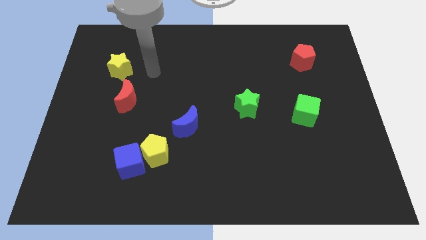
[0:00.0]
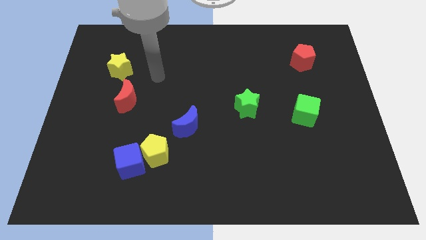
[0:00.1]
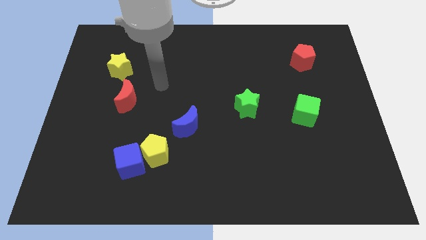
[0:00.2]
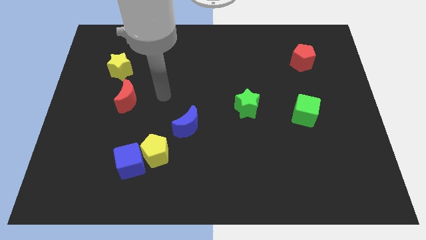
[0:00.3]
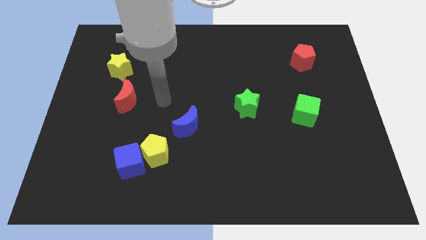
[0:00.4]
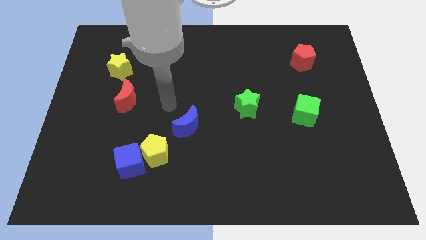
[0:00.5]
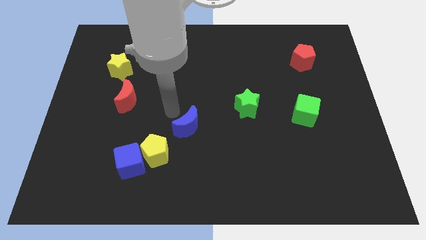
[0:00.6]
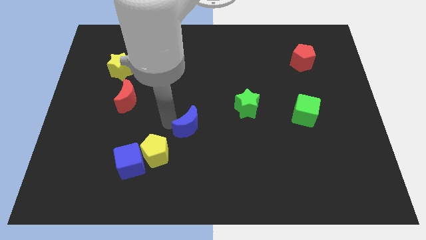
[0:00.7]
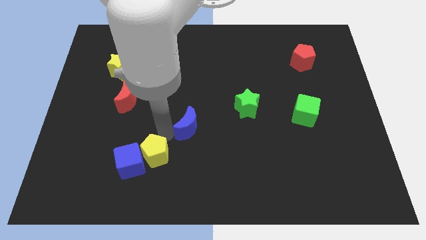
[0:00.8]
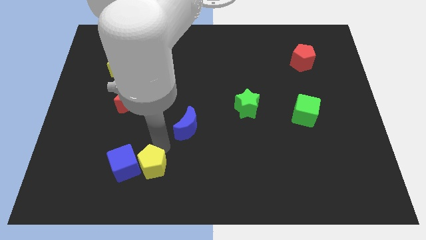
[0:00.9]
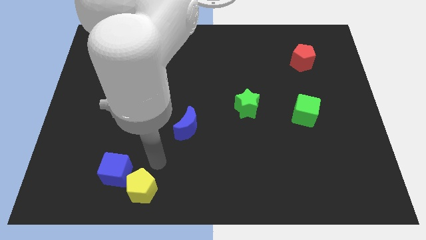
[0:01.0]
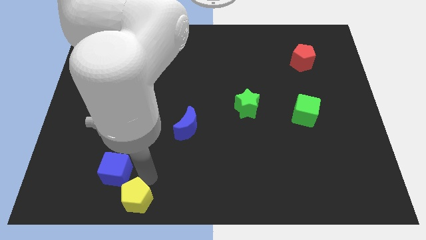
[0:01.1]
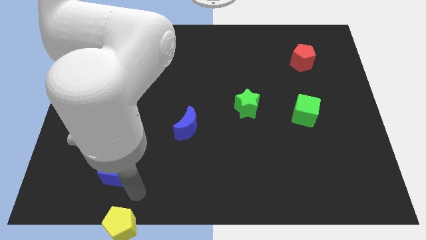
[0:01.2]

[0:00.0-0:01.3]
move the blue cube away from the yellow pentagon

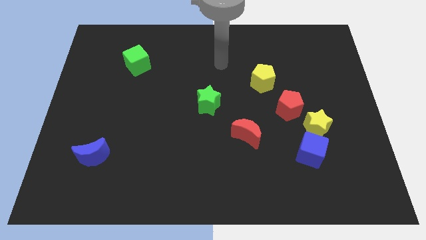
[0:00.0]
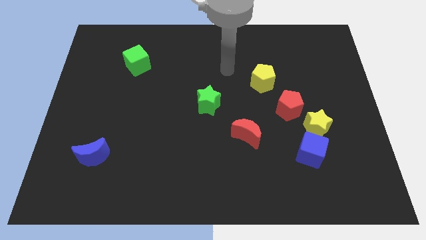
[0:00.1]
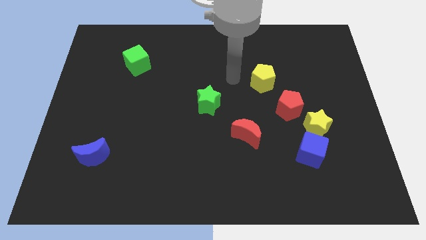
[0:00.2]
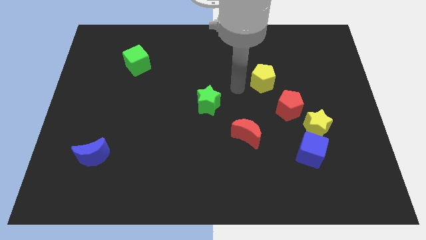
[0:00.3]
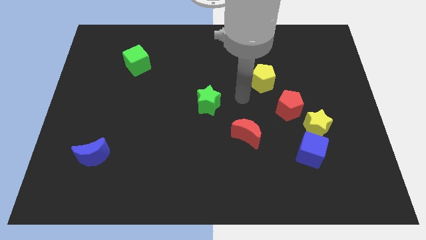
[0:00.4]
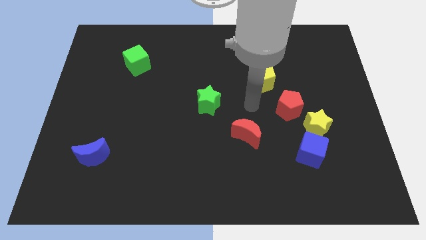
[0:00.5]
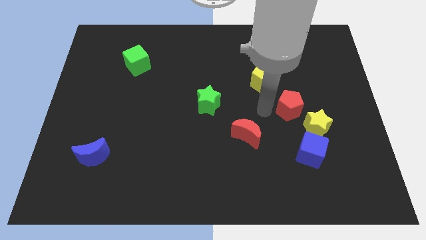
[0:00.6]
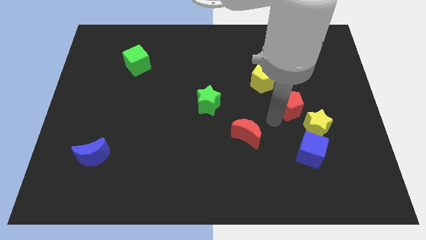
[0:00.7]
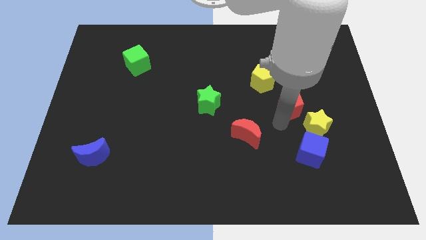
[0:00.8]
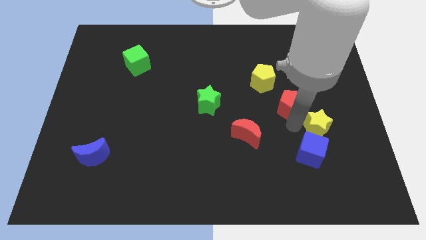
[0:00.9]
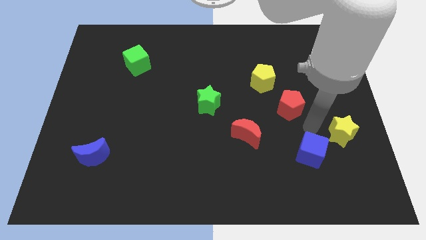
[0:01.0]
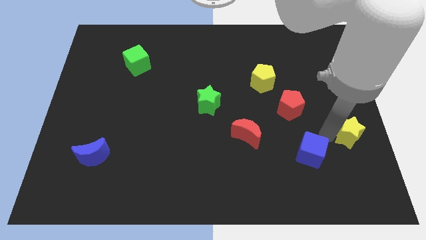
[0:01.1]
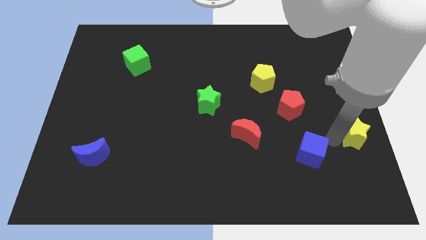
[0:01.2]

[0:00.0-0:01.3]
separate the blue cube from the yellow star

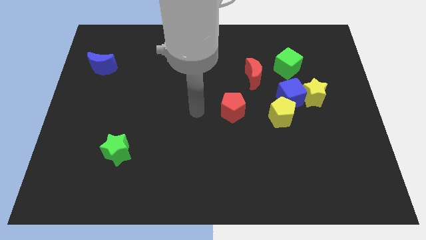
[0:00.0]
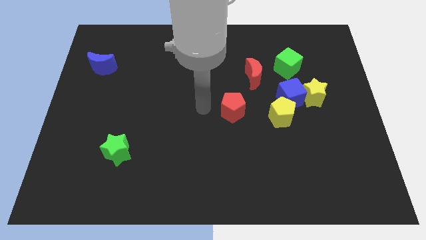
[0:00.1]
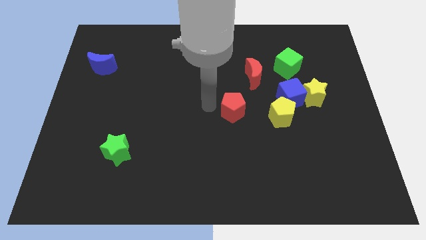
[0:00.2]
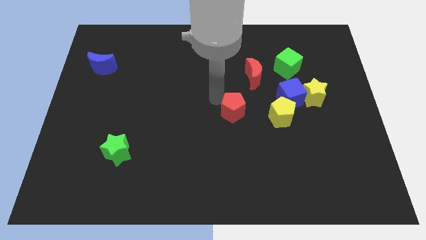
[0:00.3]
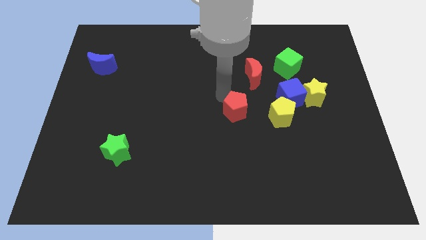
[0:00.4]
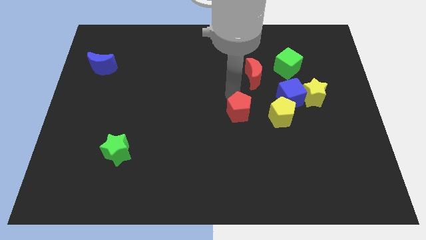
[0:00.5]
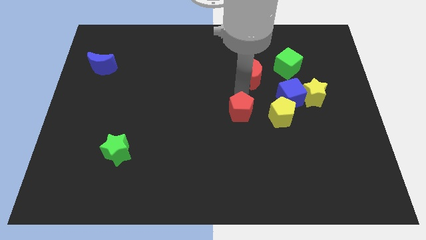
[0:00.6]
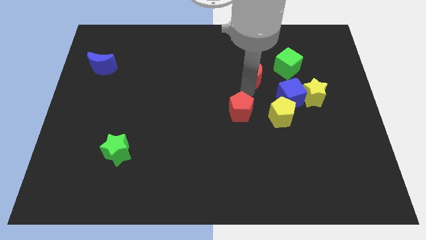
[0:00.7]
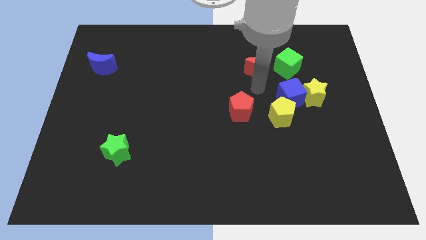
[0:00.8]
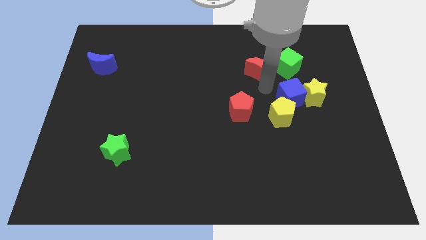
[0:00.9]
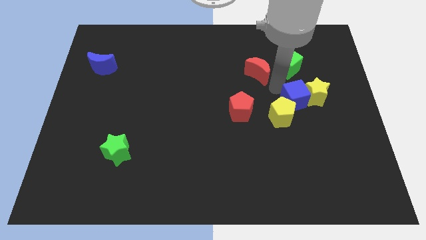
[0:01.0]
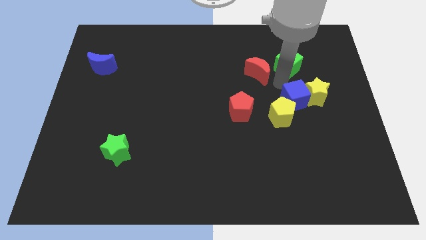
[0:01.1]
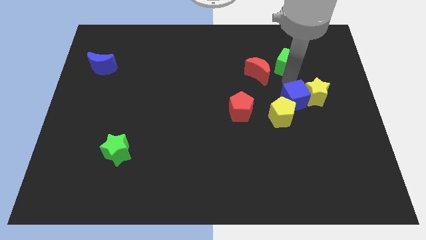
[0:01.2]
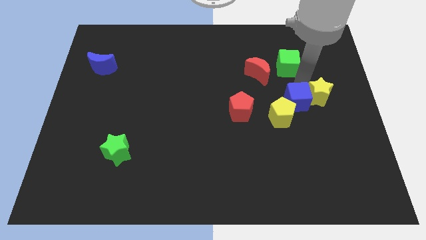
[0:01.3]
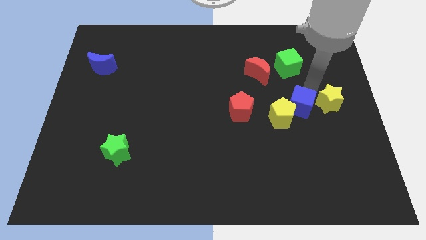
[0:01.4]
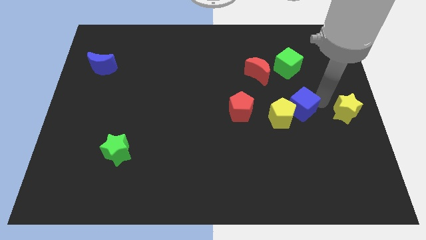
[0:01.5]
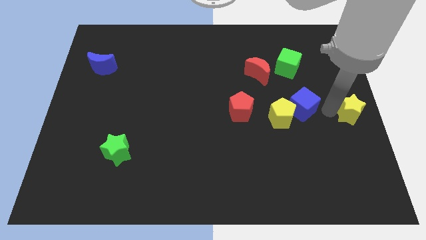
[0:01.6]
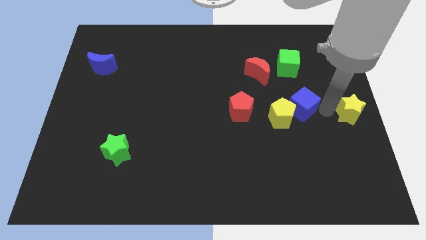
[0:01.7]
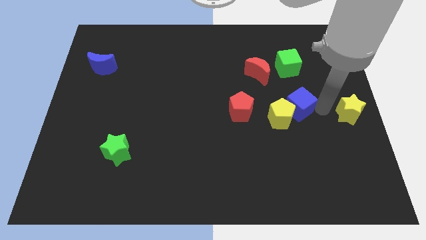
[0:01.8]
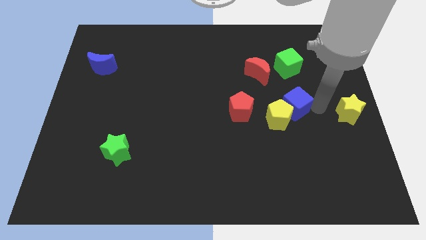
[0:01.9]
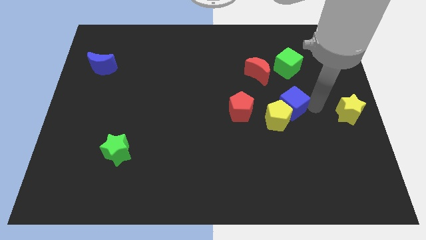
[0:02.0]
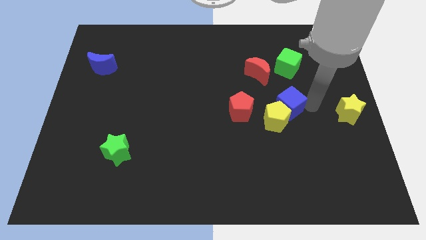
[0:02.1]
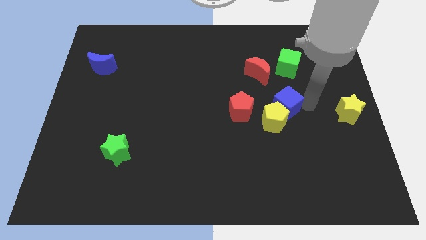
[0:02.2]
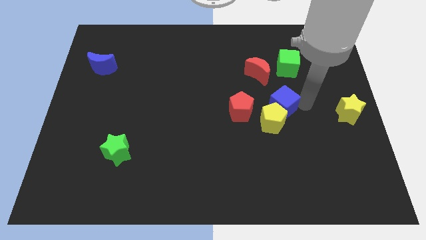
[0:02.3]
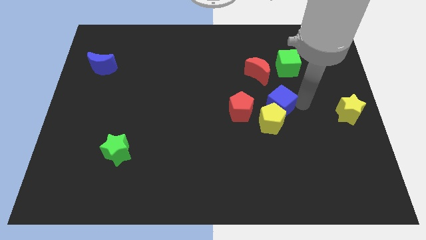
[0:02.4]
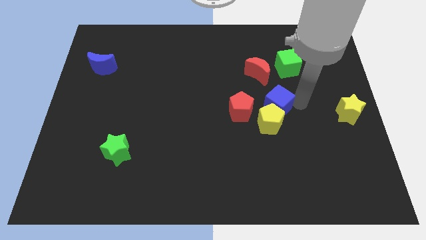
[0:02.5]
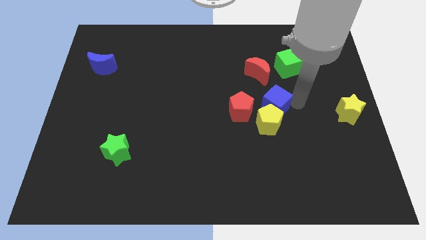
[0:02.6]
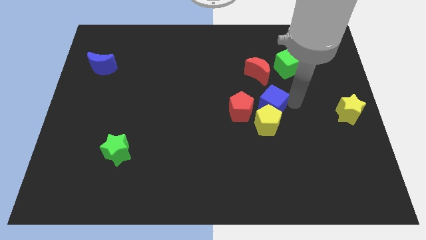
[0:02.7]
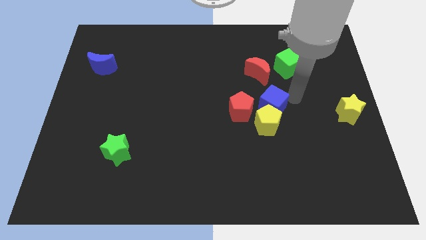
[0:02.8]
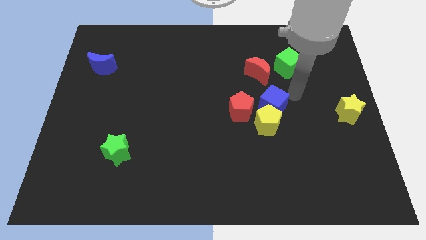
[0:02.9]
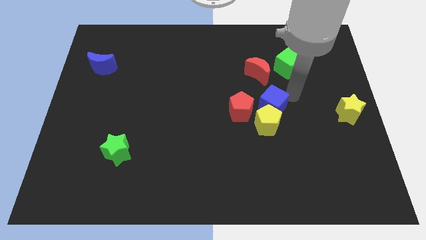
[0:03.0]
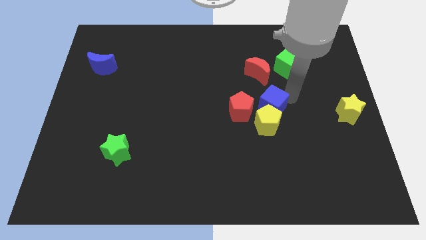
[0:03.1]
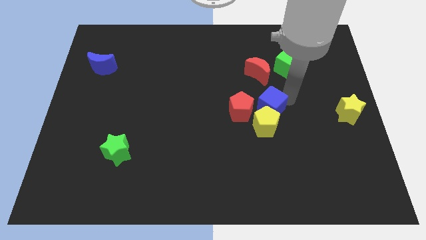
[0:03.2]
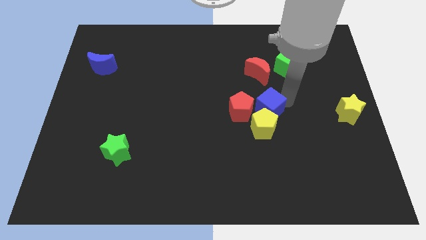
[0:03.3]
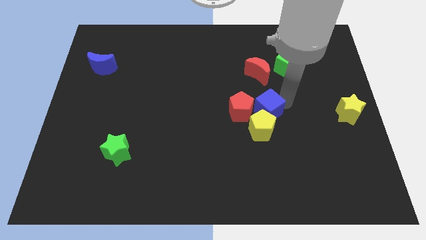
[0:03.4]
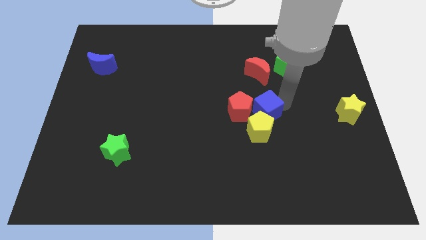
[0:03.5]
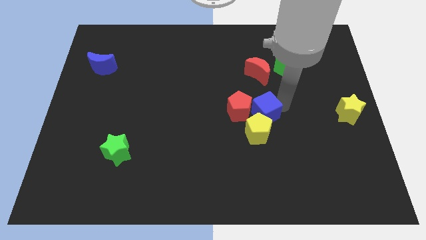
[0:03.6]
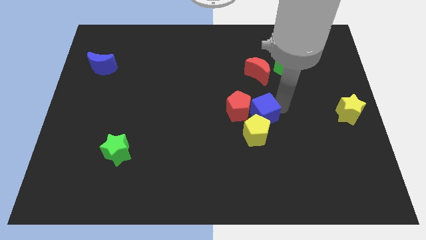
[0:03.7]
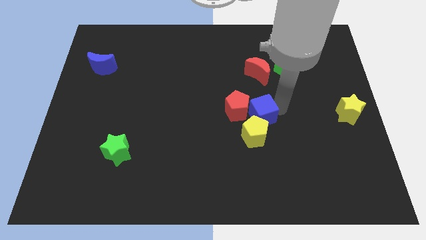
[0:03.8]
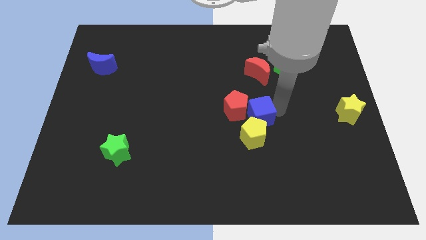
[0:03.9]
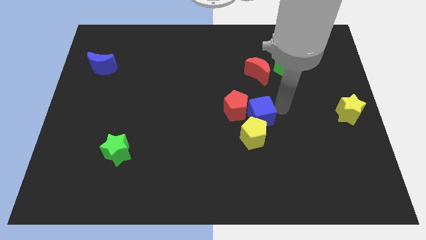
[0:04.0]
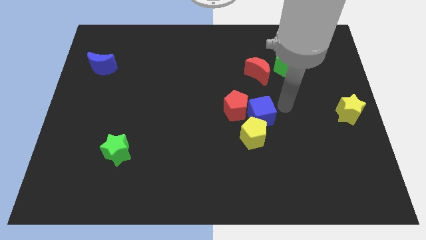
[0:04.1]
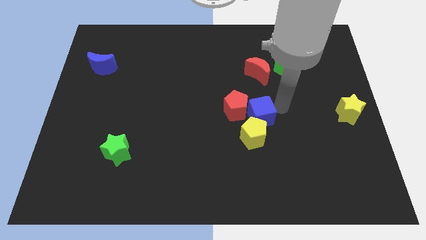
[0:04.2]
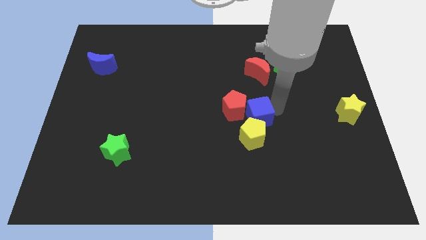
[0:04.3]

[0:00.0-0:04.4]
pull the blue cube apart from the clump

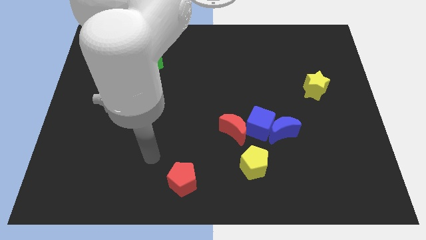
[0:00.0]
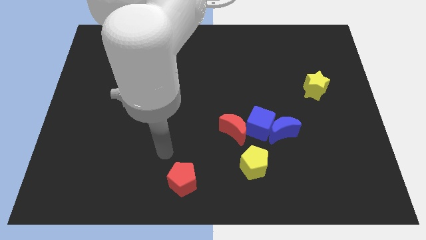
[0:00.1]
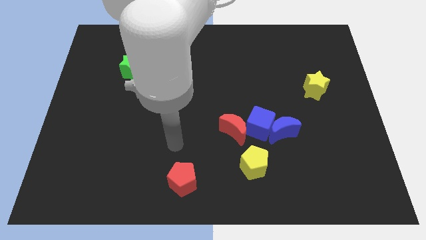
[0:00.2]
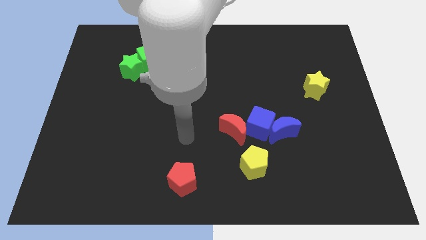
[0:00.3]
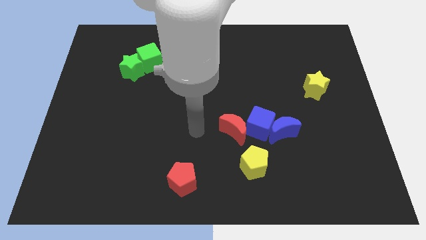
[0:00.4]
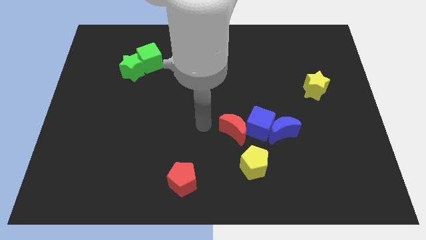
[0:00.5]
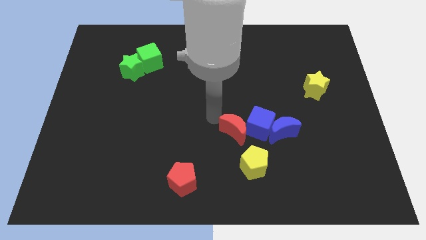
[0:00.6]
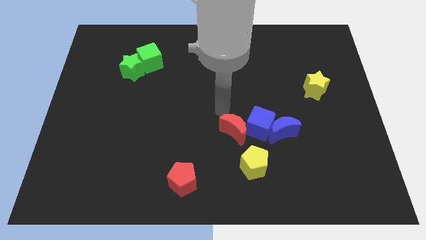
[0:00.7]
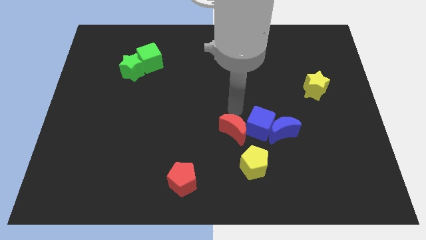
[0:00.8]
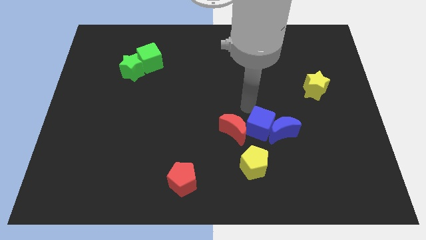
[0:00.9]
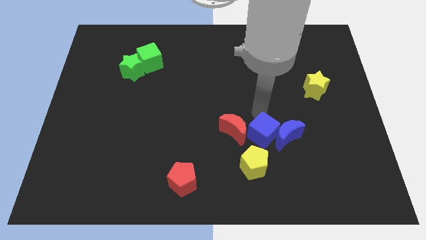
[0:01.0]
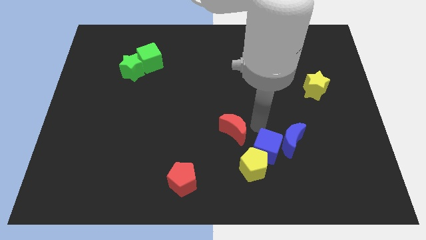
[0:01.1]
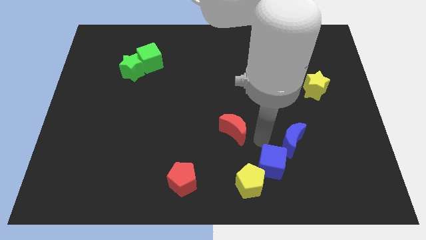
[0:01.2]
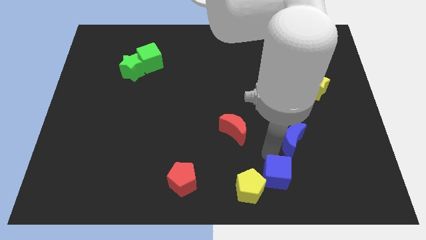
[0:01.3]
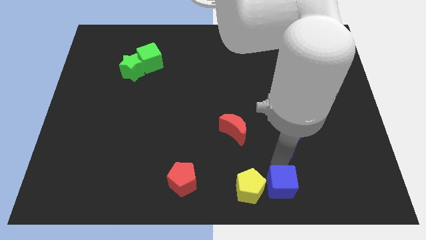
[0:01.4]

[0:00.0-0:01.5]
separate the blue moon from the blue cube

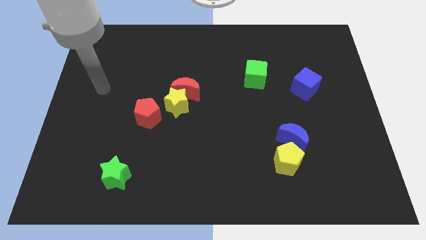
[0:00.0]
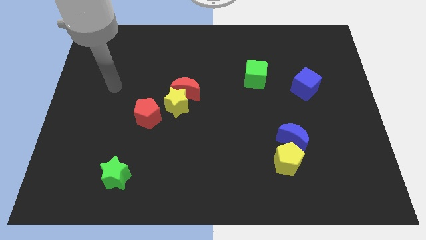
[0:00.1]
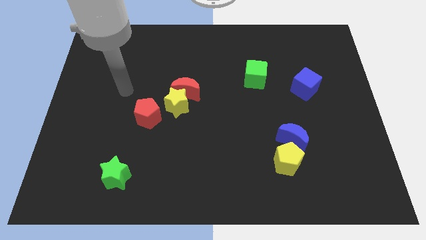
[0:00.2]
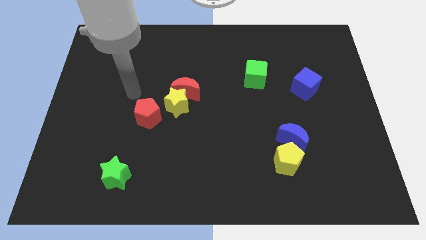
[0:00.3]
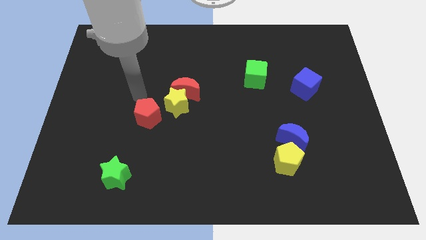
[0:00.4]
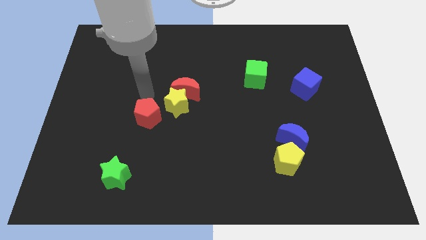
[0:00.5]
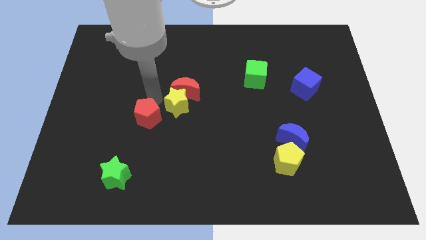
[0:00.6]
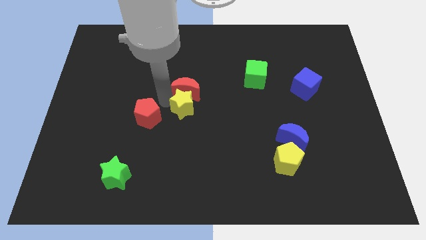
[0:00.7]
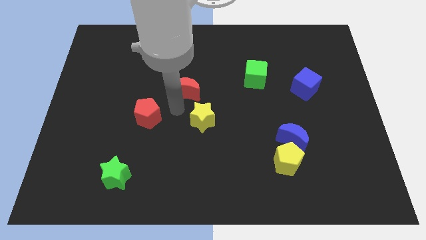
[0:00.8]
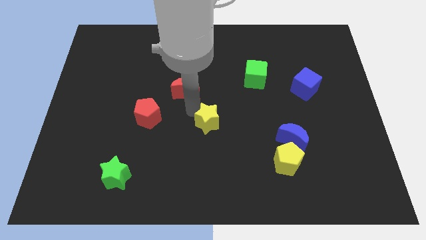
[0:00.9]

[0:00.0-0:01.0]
separate the red moon from the yellow star
